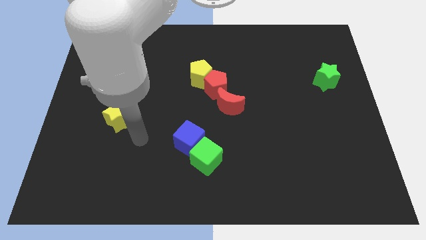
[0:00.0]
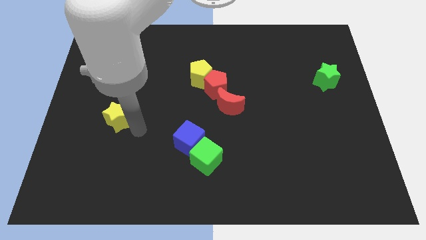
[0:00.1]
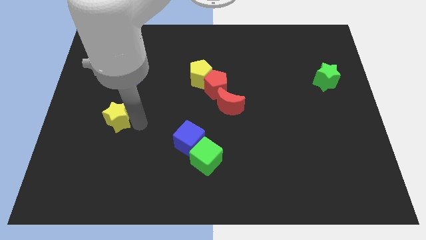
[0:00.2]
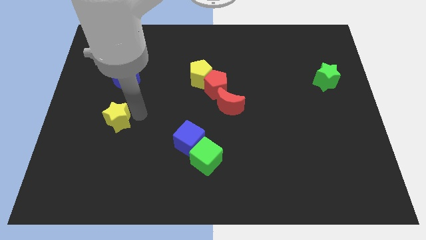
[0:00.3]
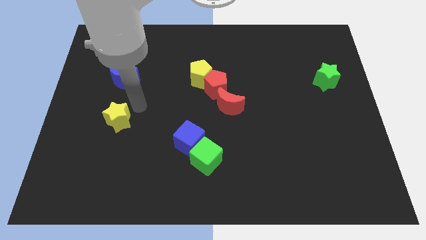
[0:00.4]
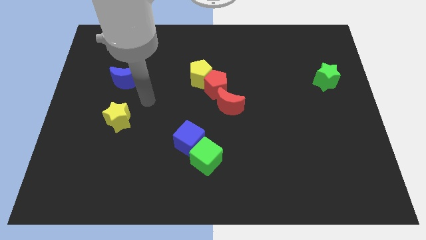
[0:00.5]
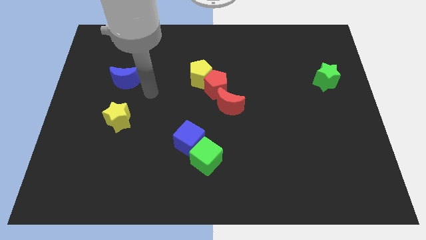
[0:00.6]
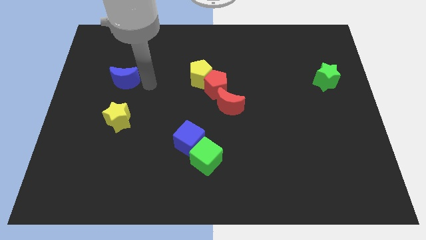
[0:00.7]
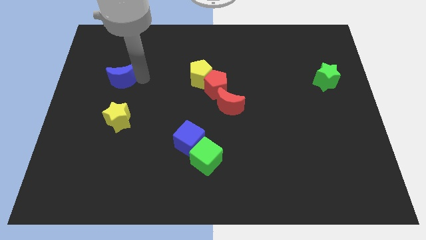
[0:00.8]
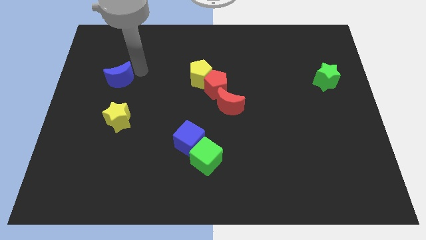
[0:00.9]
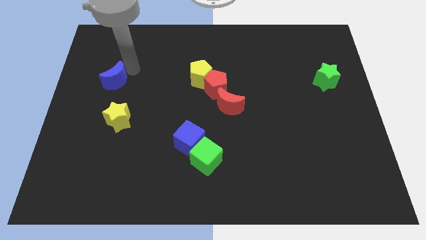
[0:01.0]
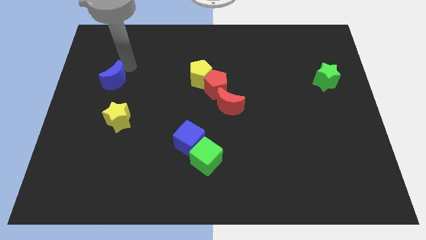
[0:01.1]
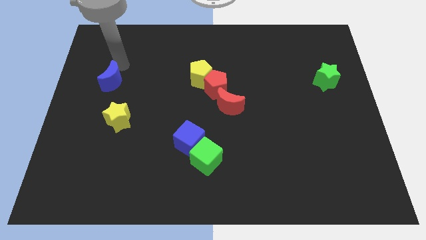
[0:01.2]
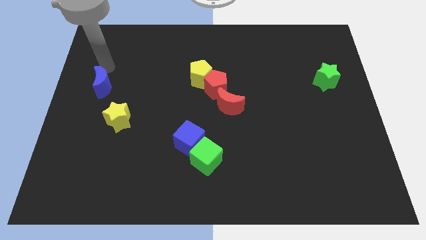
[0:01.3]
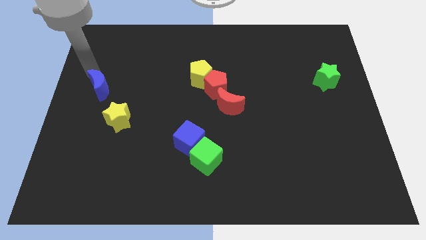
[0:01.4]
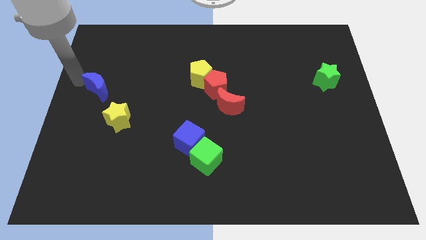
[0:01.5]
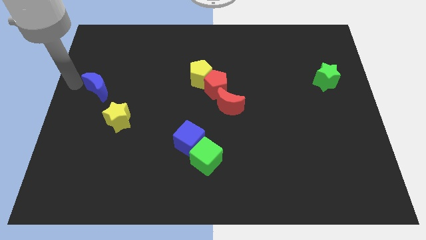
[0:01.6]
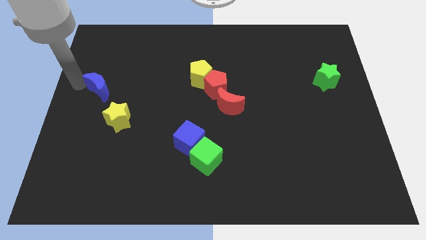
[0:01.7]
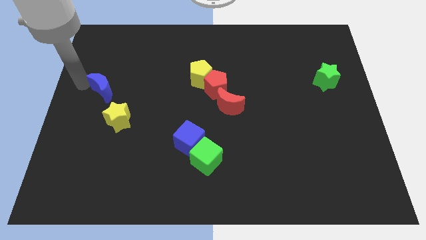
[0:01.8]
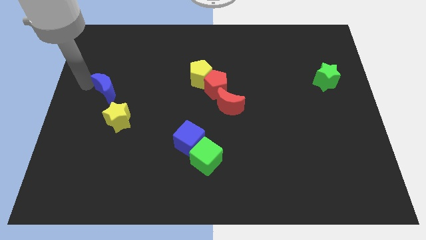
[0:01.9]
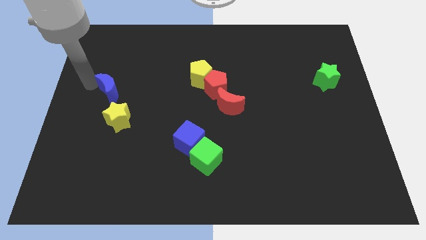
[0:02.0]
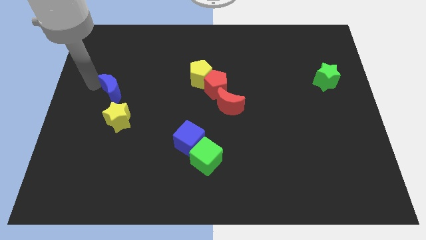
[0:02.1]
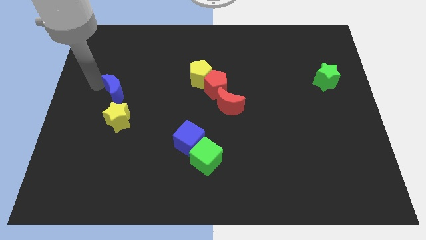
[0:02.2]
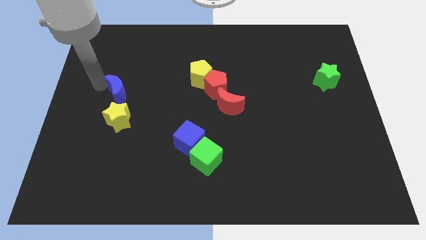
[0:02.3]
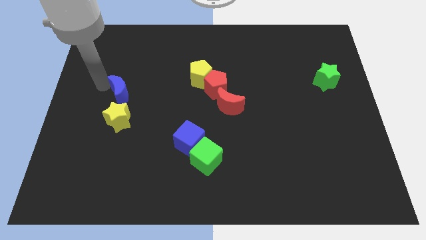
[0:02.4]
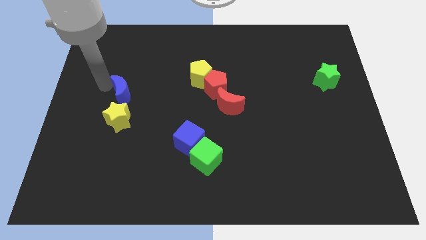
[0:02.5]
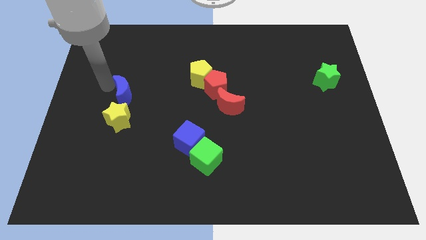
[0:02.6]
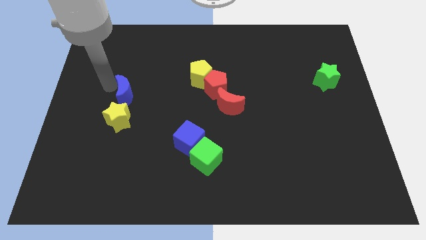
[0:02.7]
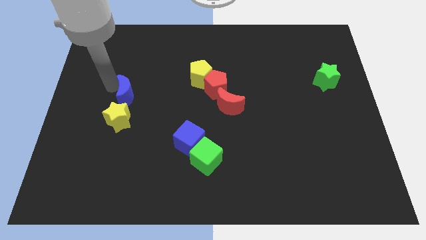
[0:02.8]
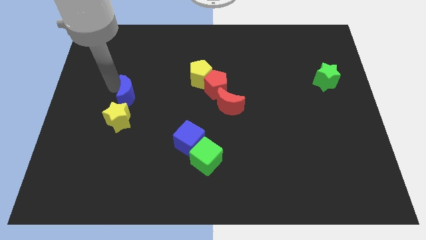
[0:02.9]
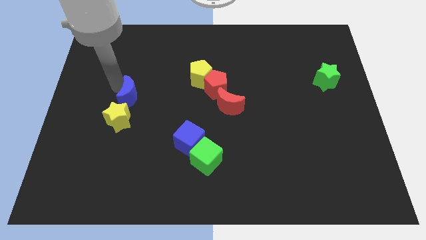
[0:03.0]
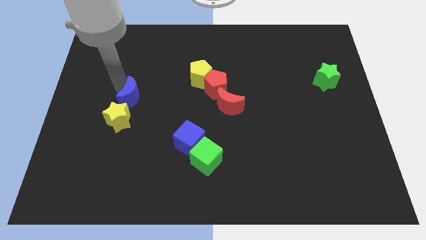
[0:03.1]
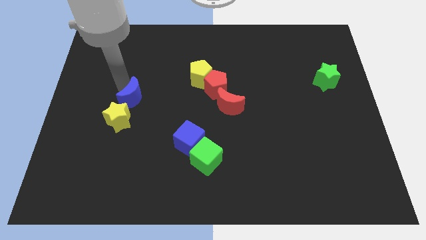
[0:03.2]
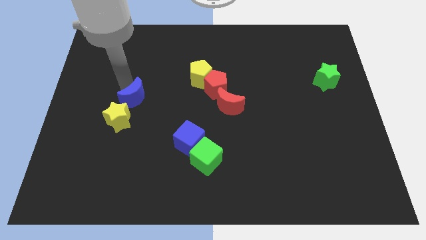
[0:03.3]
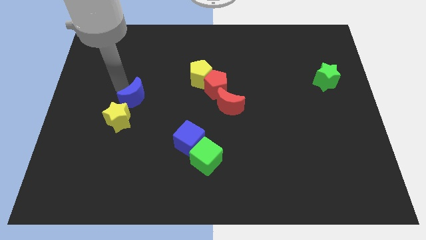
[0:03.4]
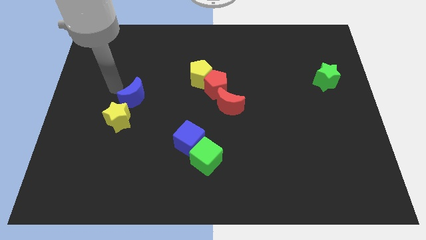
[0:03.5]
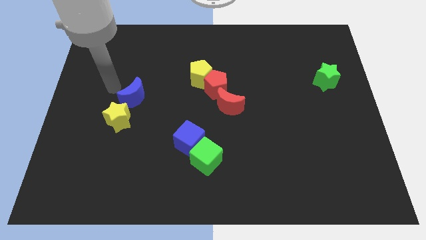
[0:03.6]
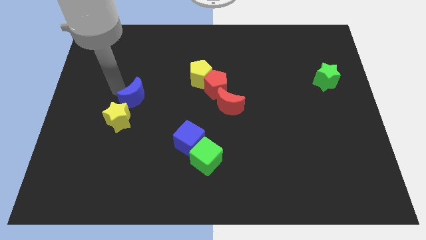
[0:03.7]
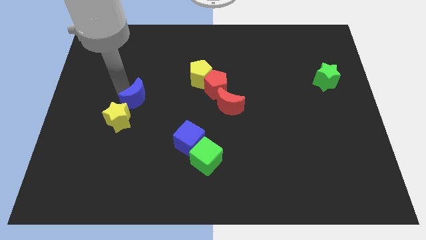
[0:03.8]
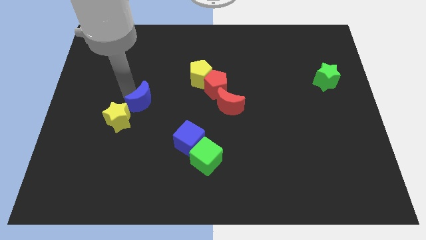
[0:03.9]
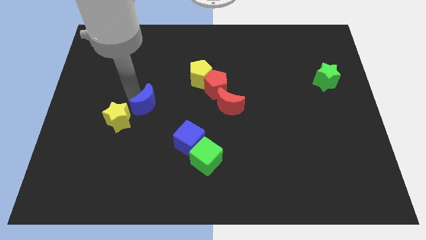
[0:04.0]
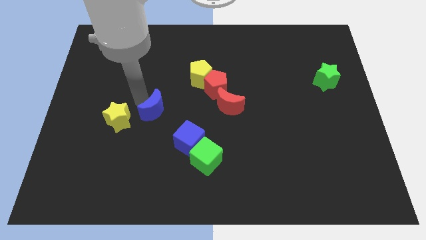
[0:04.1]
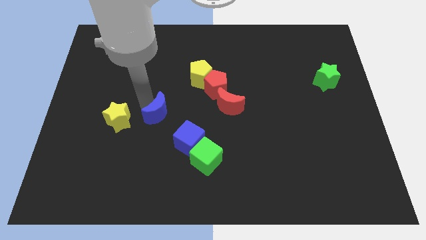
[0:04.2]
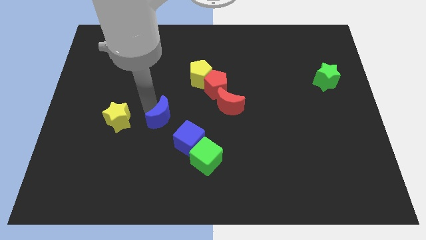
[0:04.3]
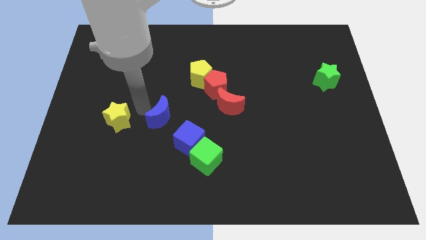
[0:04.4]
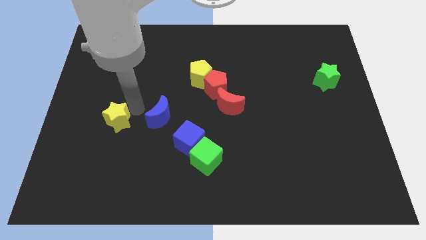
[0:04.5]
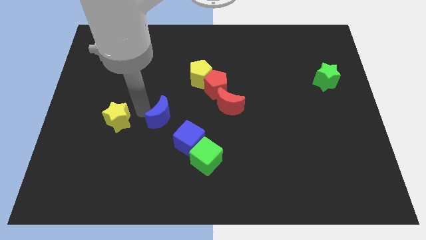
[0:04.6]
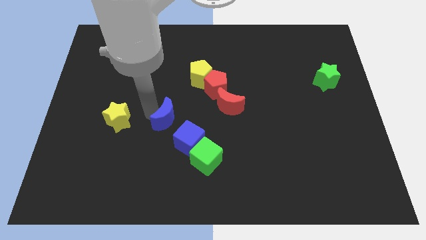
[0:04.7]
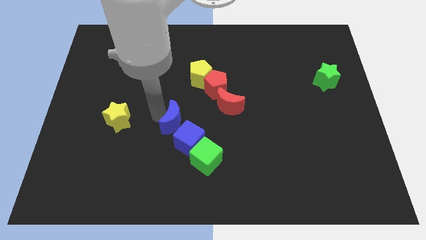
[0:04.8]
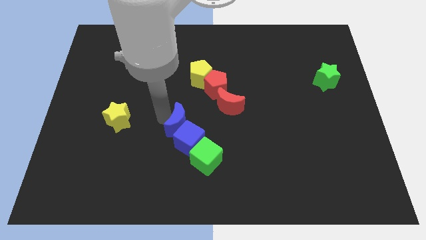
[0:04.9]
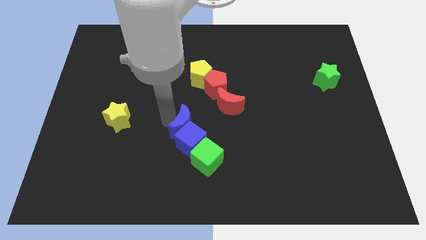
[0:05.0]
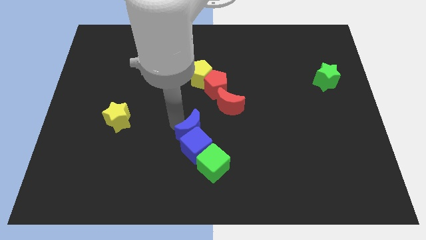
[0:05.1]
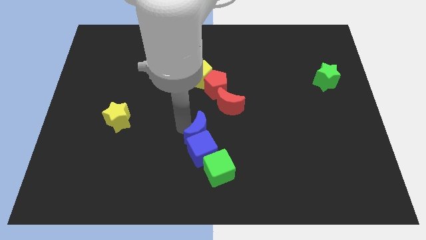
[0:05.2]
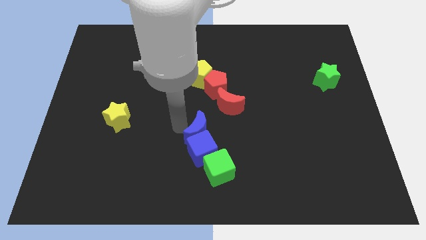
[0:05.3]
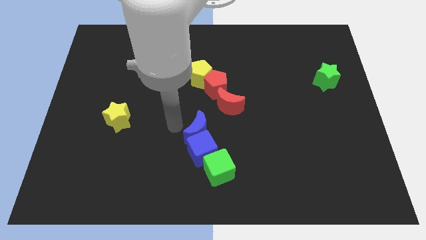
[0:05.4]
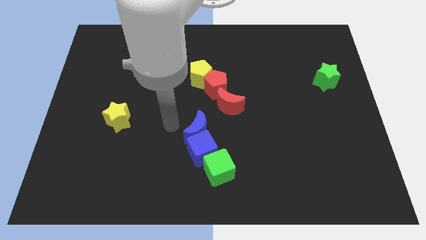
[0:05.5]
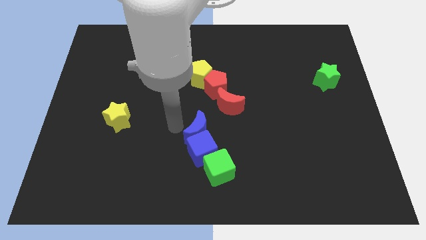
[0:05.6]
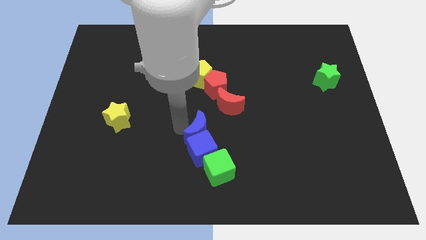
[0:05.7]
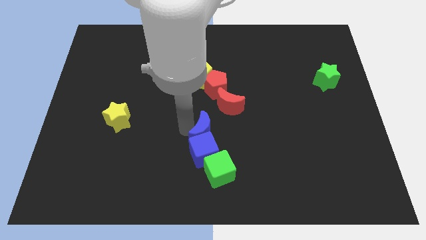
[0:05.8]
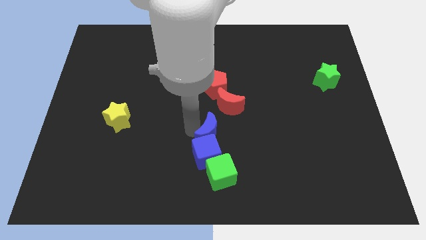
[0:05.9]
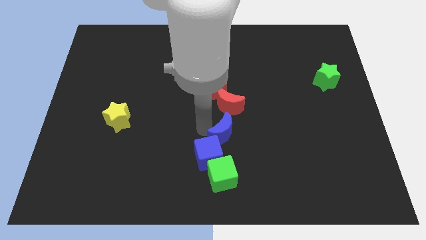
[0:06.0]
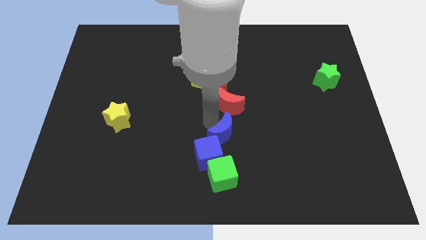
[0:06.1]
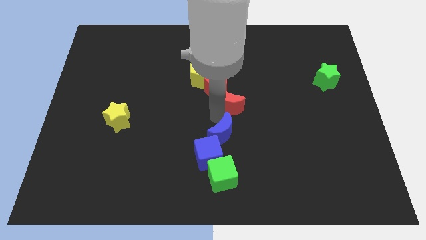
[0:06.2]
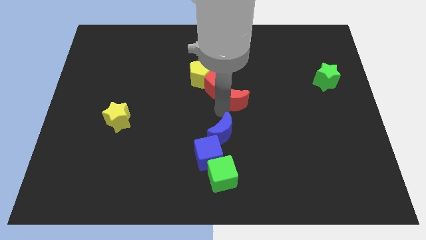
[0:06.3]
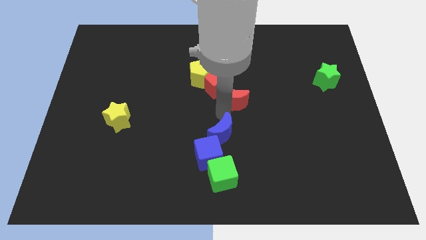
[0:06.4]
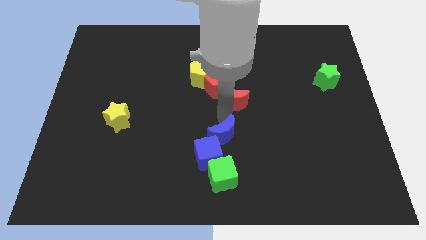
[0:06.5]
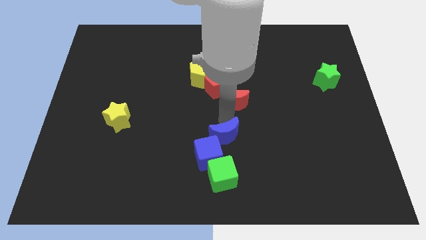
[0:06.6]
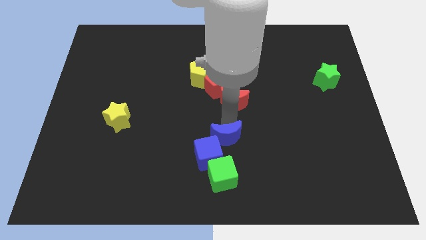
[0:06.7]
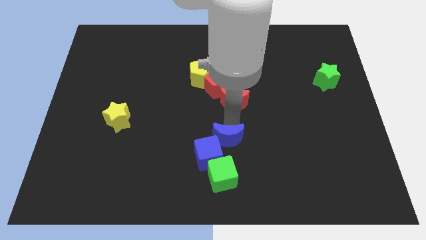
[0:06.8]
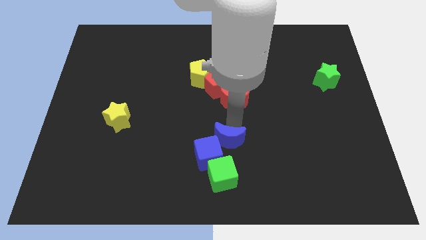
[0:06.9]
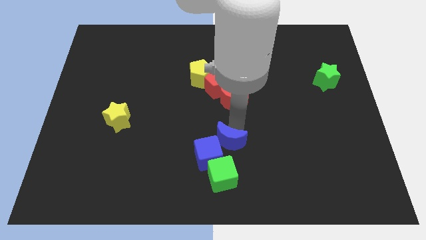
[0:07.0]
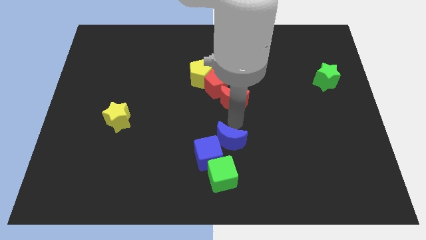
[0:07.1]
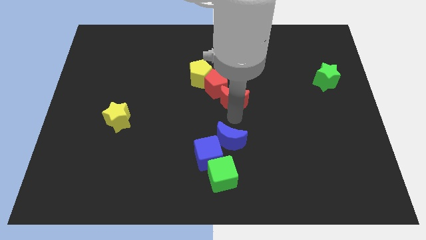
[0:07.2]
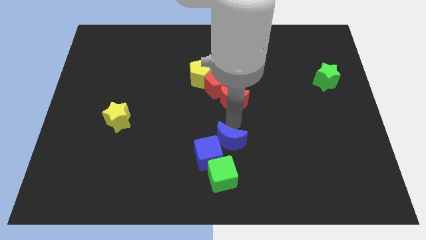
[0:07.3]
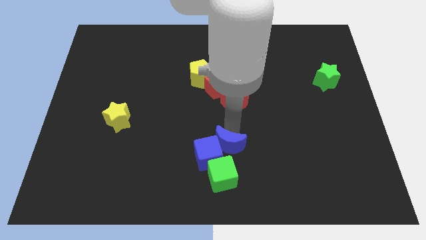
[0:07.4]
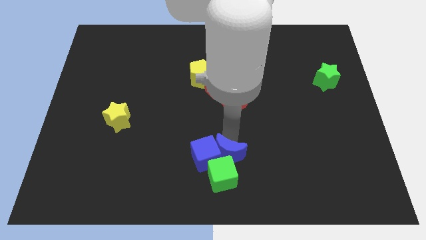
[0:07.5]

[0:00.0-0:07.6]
move the blue moon next to the green cube
